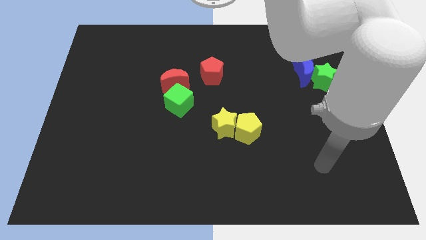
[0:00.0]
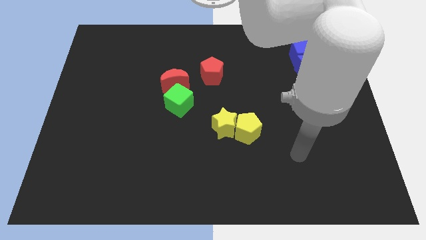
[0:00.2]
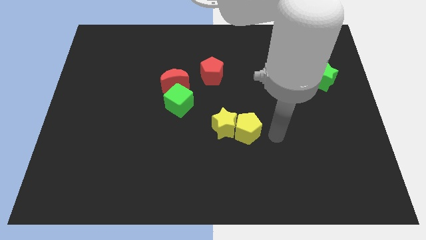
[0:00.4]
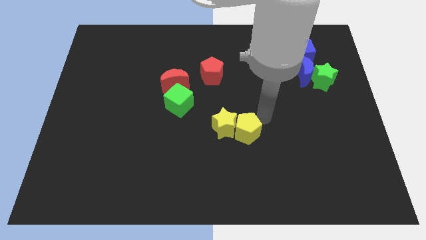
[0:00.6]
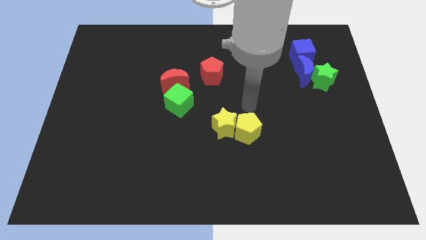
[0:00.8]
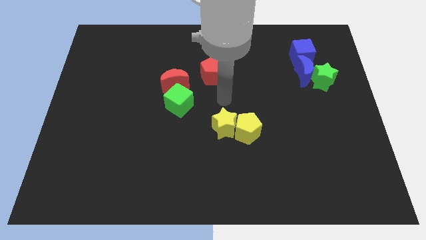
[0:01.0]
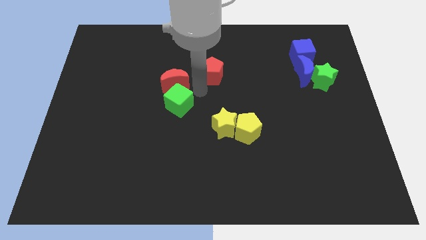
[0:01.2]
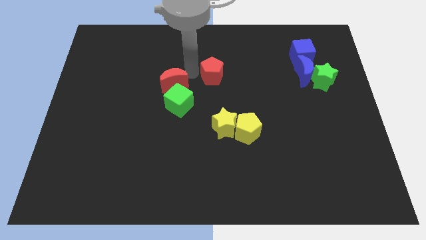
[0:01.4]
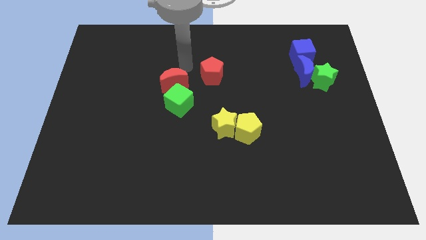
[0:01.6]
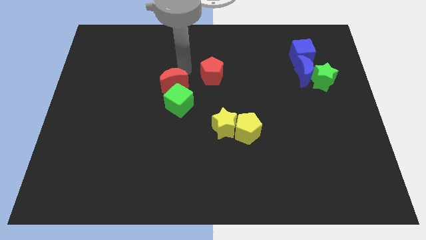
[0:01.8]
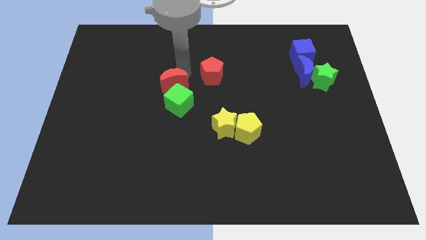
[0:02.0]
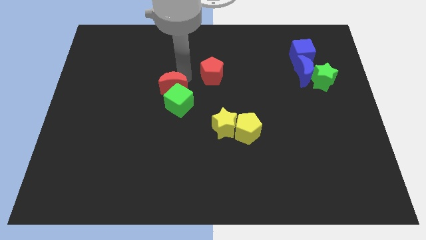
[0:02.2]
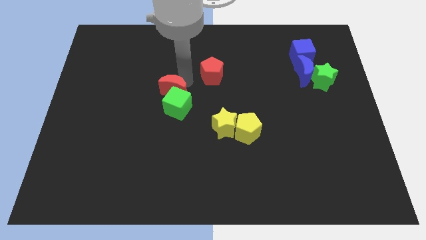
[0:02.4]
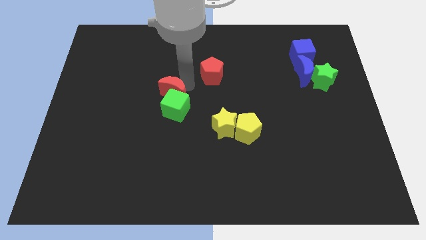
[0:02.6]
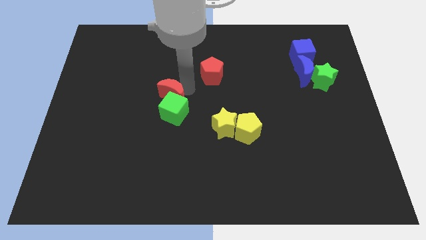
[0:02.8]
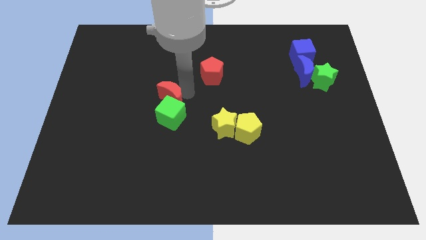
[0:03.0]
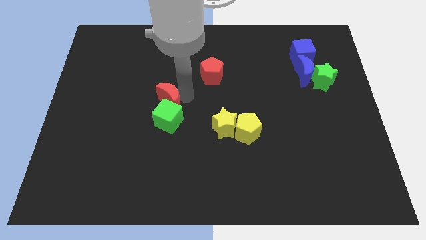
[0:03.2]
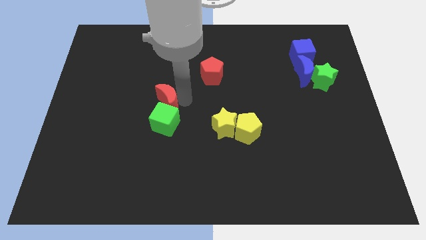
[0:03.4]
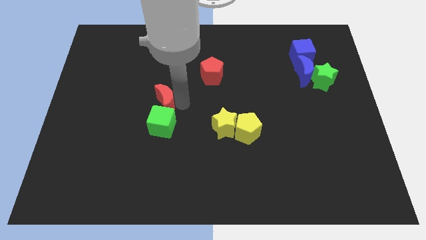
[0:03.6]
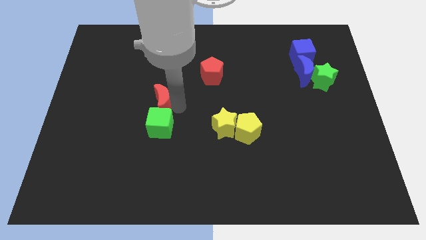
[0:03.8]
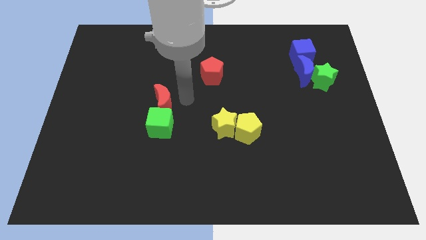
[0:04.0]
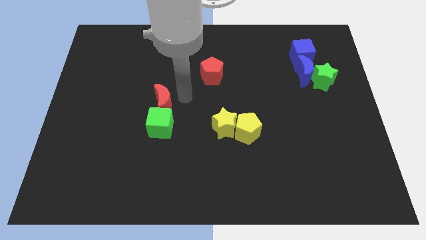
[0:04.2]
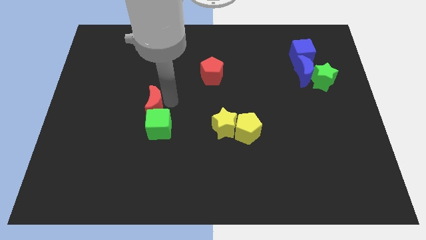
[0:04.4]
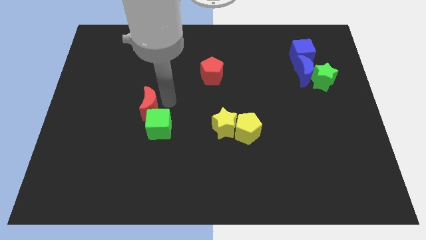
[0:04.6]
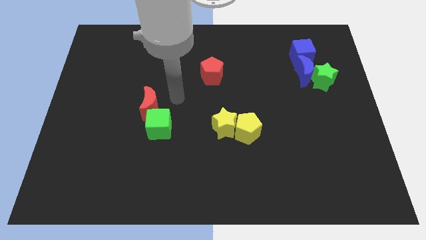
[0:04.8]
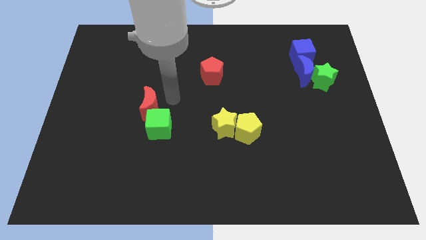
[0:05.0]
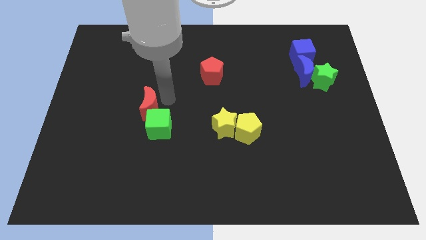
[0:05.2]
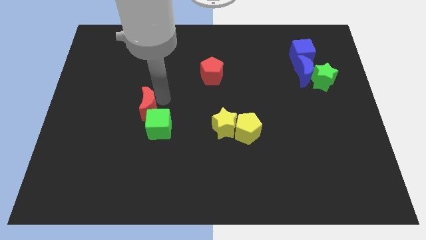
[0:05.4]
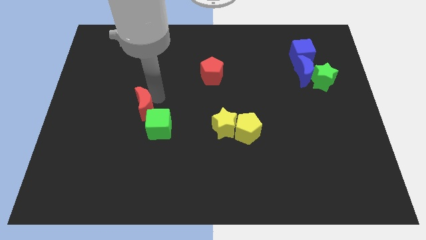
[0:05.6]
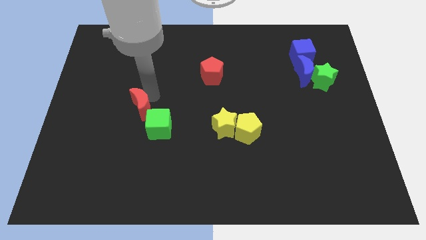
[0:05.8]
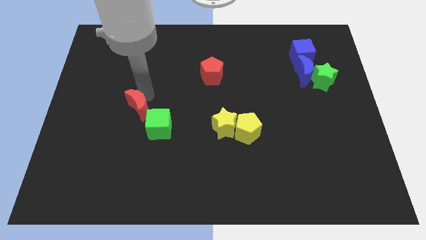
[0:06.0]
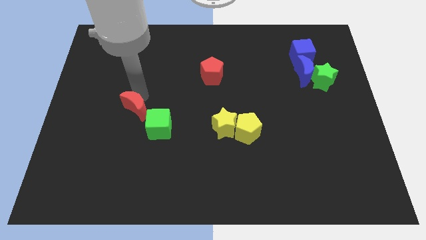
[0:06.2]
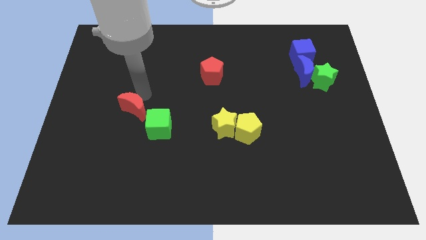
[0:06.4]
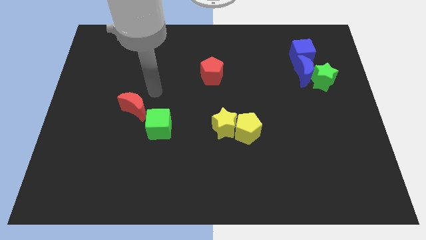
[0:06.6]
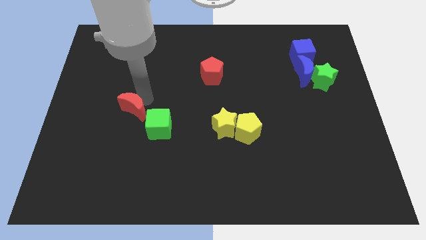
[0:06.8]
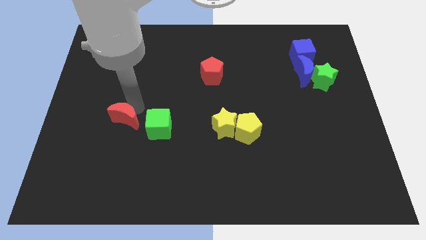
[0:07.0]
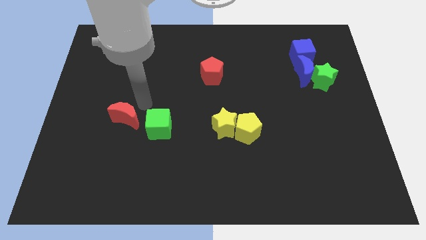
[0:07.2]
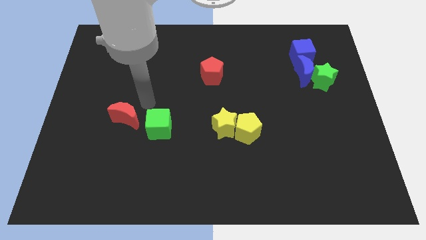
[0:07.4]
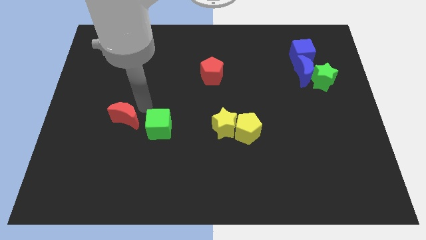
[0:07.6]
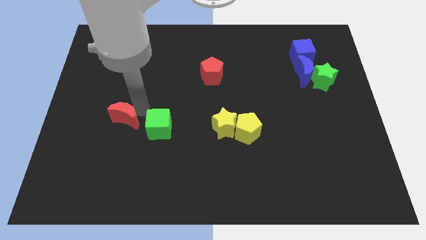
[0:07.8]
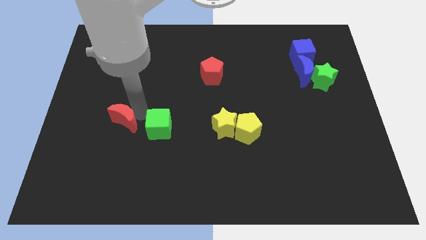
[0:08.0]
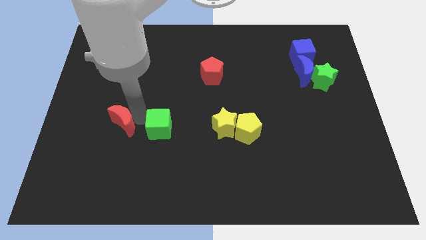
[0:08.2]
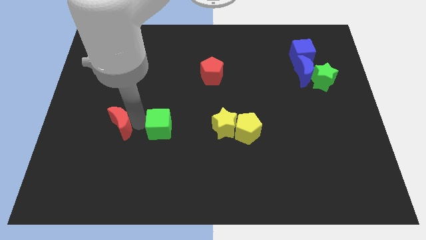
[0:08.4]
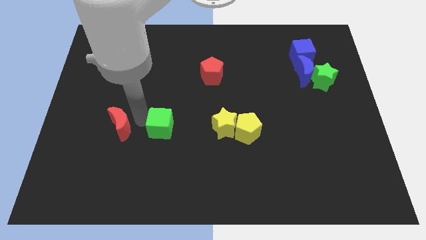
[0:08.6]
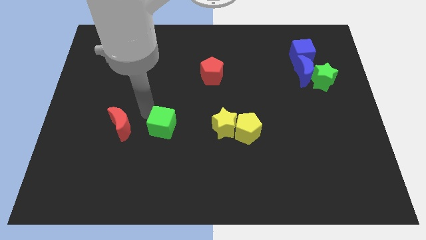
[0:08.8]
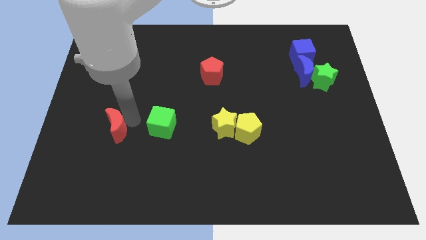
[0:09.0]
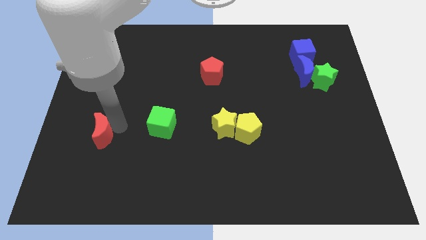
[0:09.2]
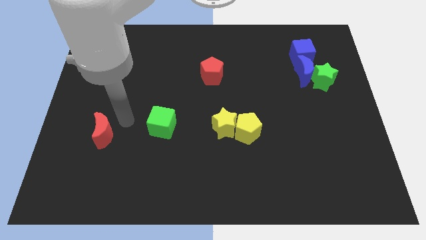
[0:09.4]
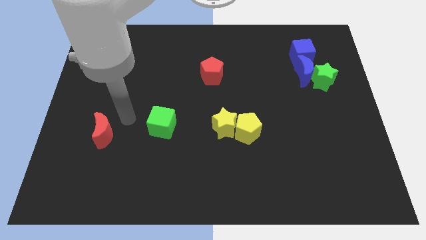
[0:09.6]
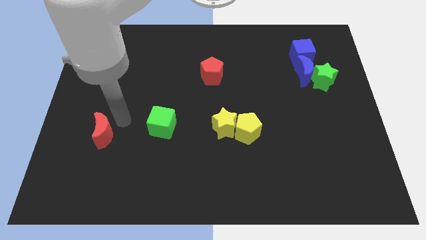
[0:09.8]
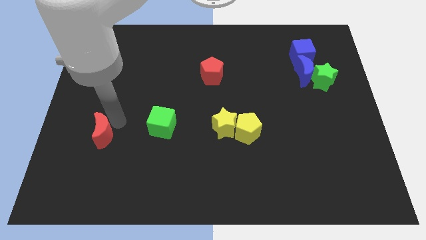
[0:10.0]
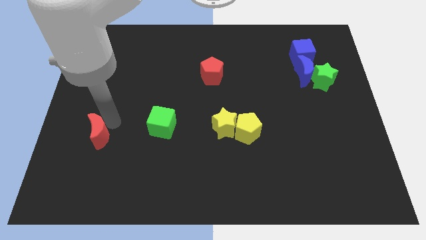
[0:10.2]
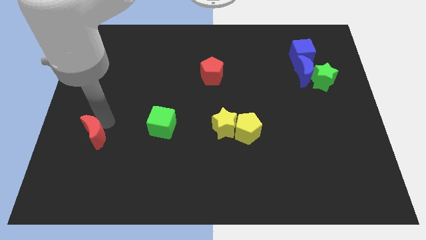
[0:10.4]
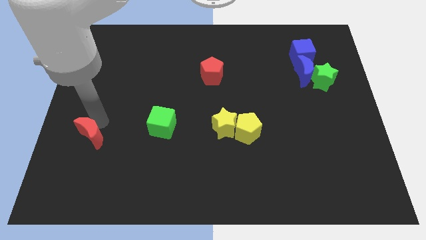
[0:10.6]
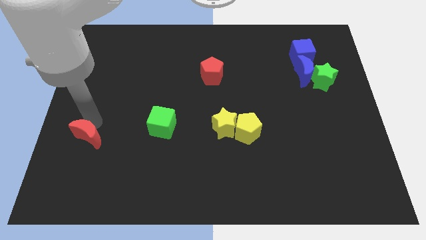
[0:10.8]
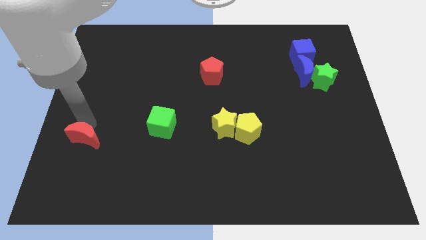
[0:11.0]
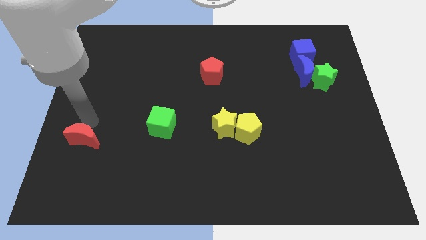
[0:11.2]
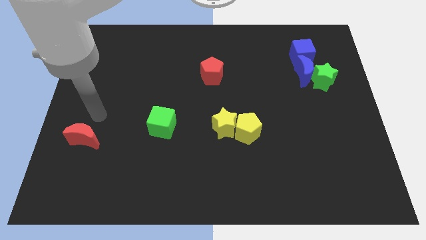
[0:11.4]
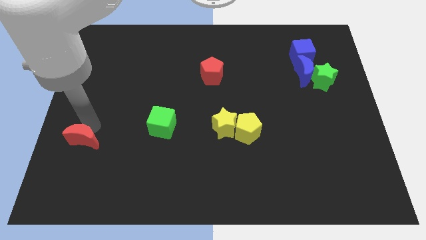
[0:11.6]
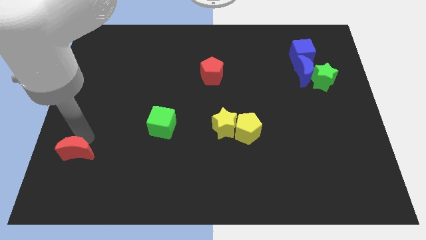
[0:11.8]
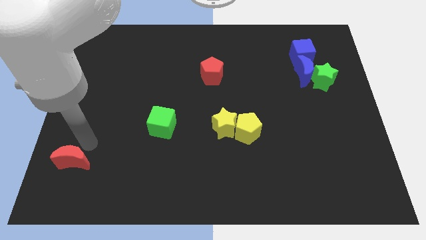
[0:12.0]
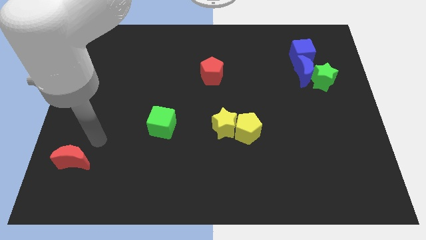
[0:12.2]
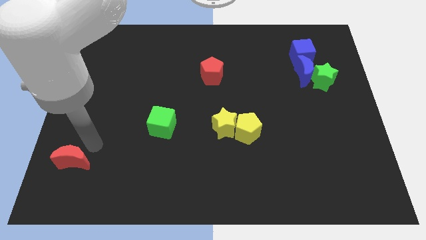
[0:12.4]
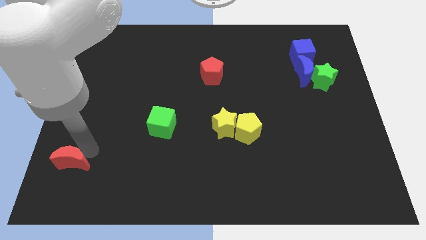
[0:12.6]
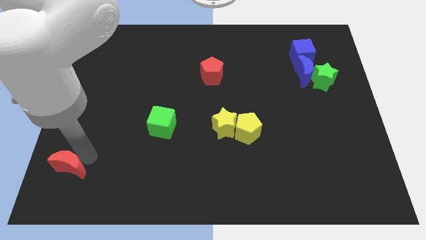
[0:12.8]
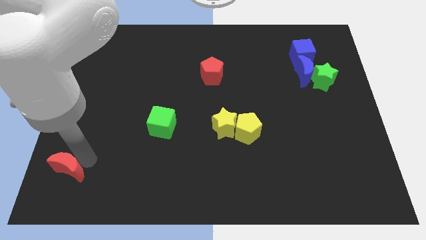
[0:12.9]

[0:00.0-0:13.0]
slide the red moon to the lower left corner
